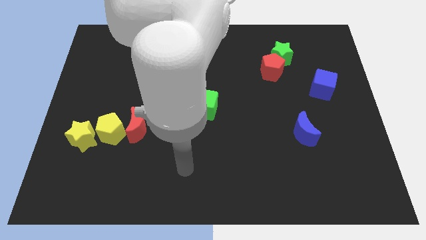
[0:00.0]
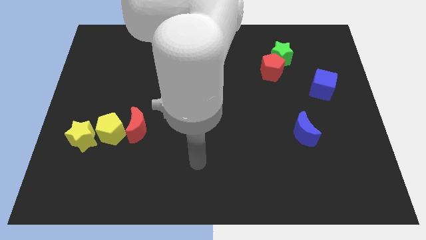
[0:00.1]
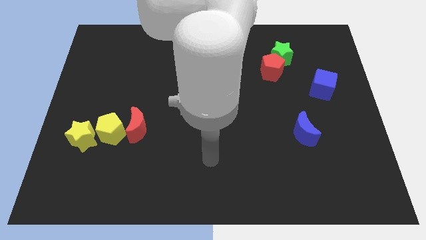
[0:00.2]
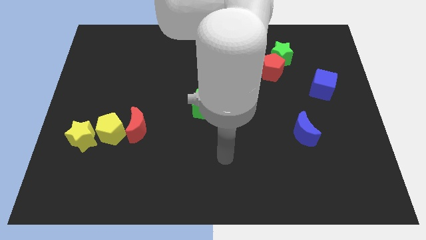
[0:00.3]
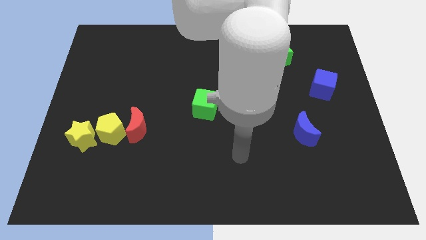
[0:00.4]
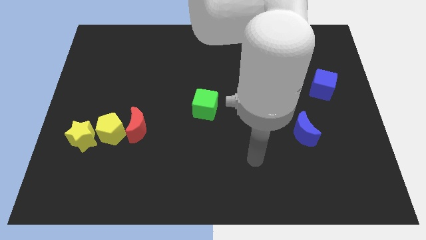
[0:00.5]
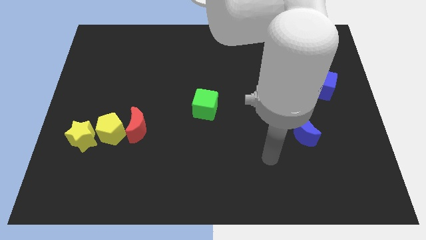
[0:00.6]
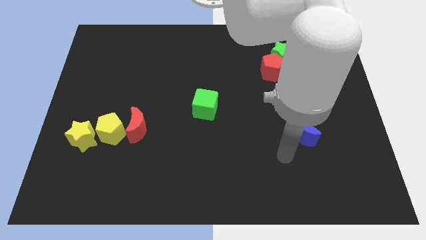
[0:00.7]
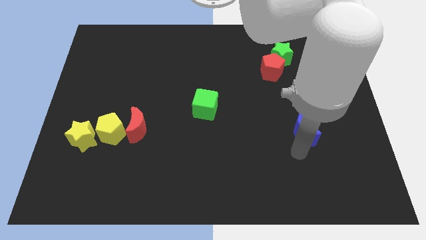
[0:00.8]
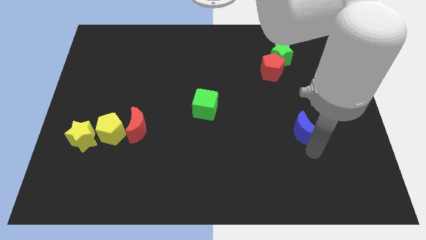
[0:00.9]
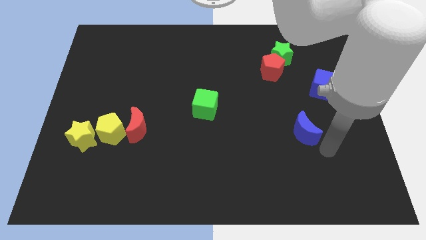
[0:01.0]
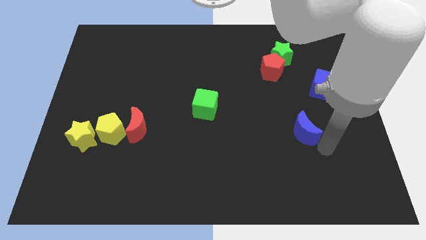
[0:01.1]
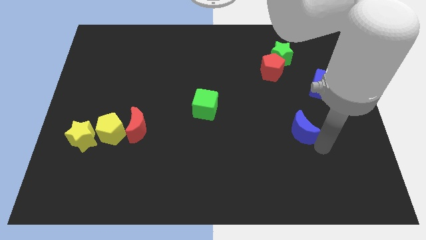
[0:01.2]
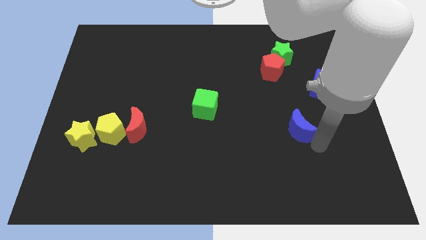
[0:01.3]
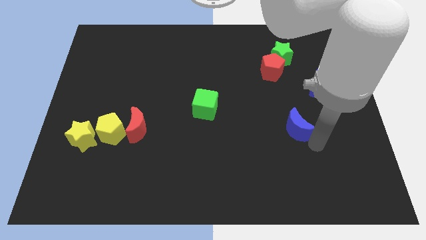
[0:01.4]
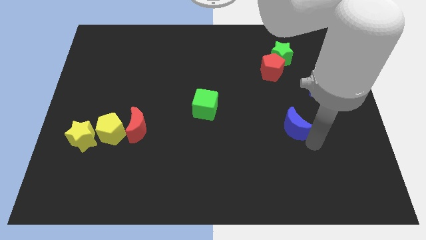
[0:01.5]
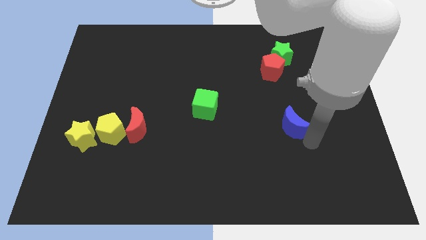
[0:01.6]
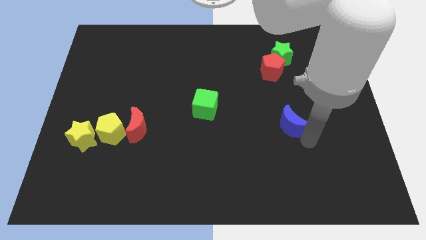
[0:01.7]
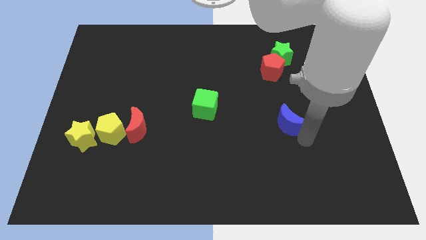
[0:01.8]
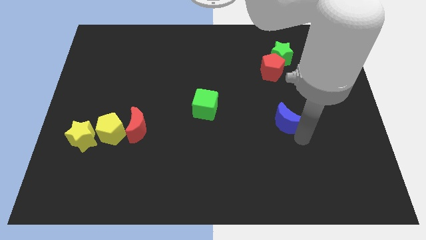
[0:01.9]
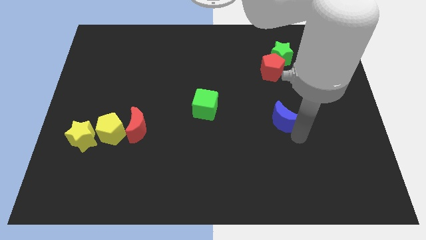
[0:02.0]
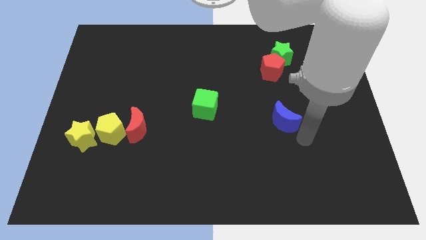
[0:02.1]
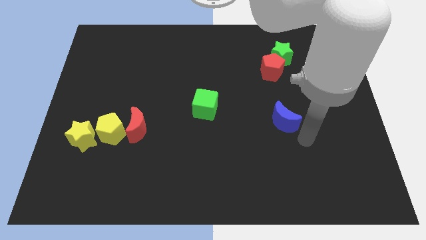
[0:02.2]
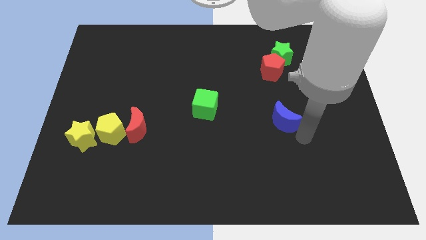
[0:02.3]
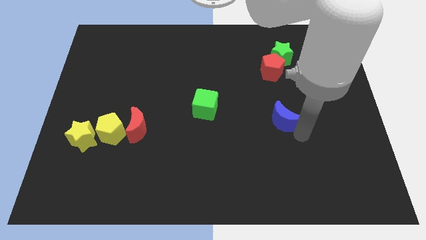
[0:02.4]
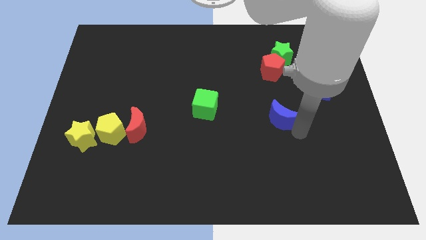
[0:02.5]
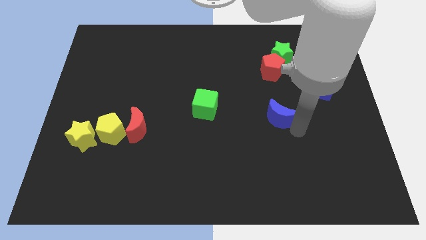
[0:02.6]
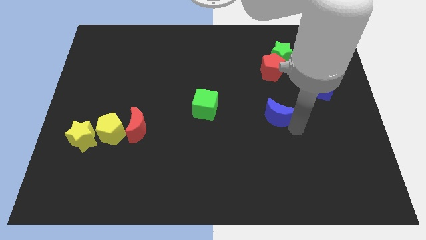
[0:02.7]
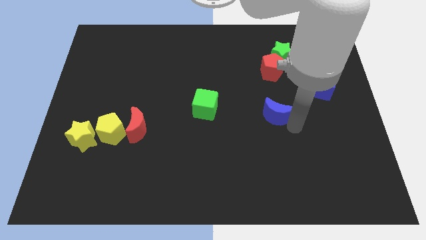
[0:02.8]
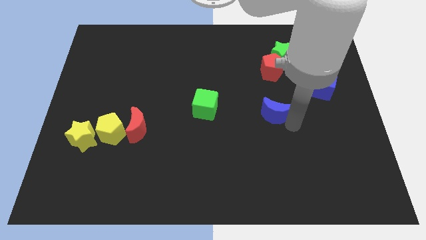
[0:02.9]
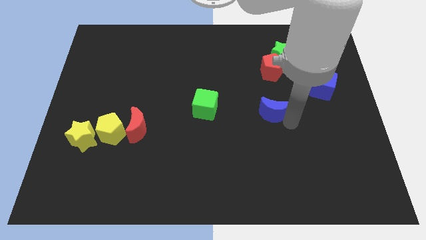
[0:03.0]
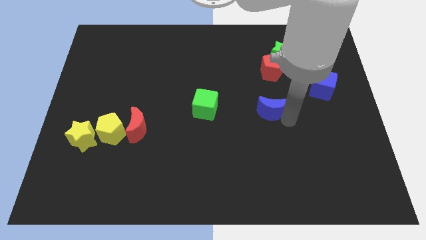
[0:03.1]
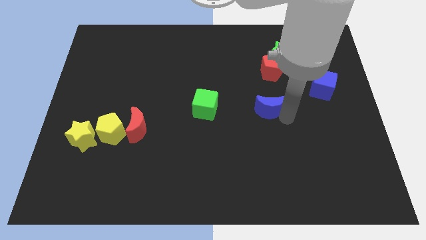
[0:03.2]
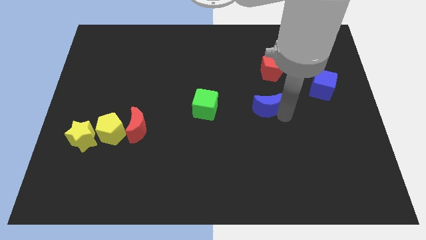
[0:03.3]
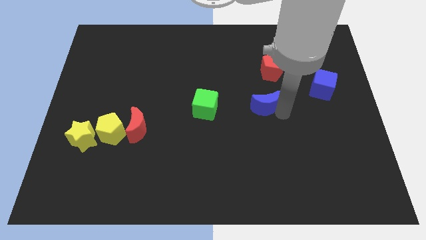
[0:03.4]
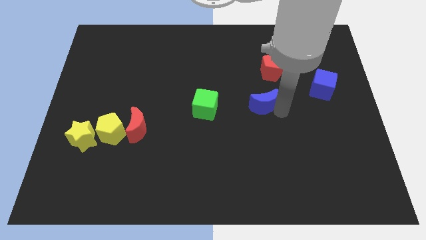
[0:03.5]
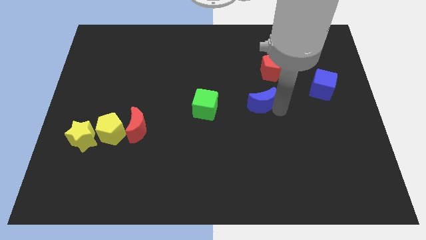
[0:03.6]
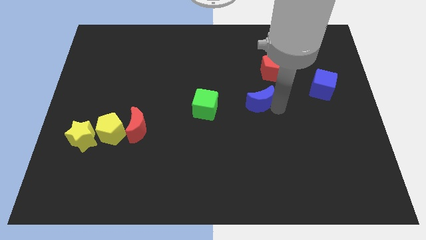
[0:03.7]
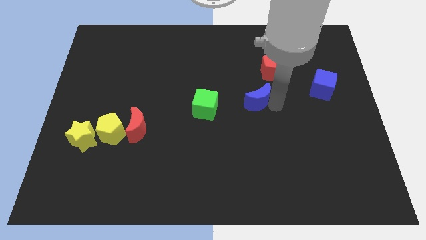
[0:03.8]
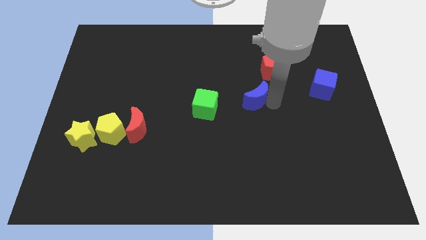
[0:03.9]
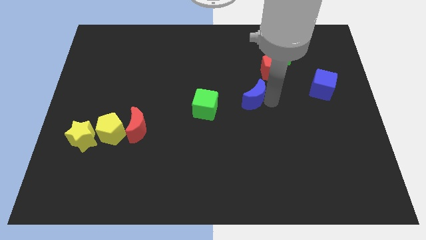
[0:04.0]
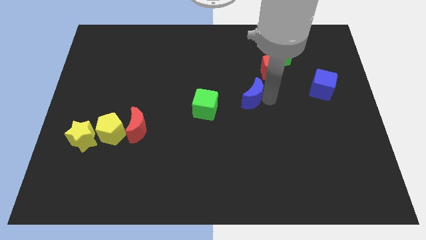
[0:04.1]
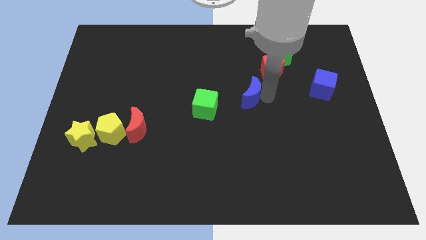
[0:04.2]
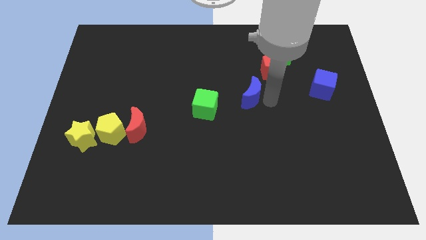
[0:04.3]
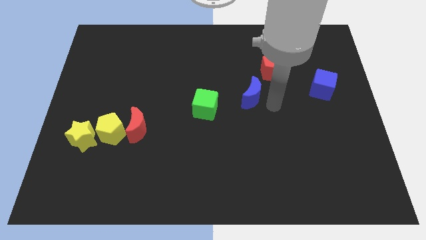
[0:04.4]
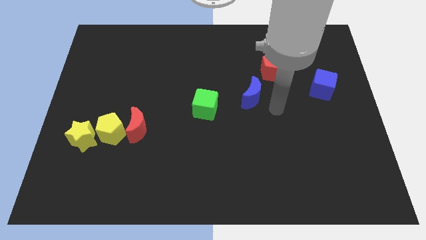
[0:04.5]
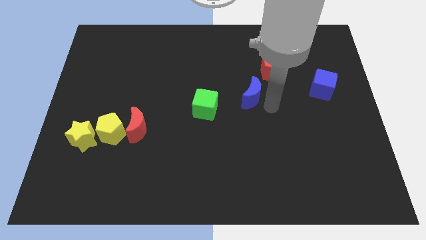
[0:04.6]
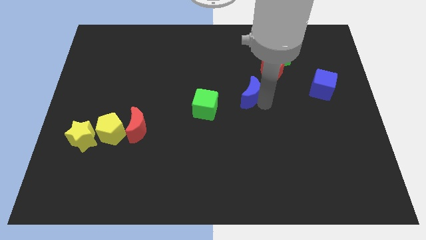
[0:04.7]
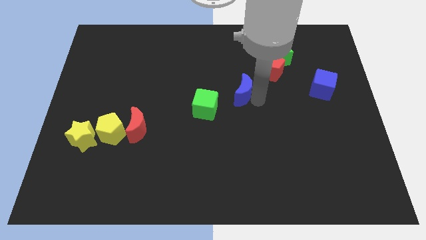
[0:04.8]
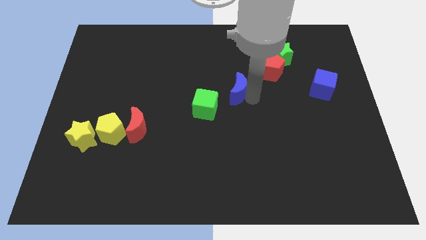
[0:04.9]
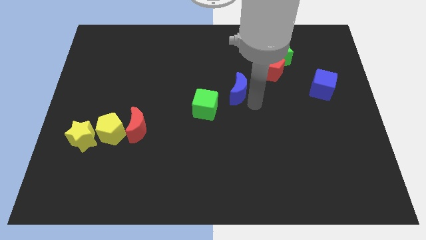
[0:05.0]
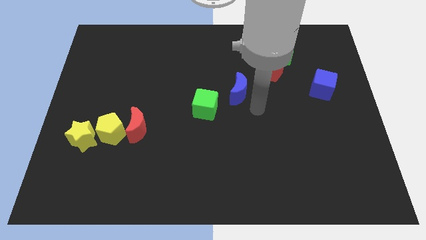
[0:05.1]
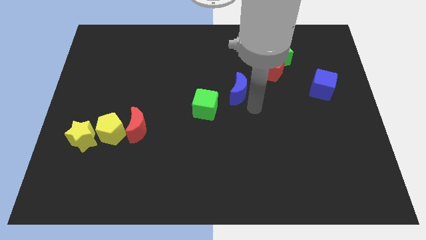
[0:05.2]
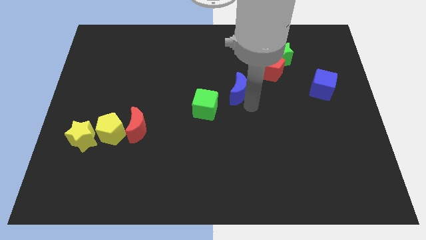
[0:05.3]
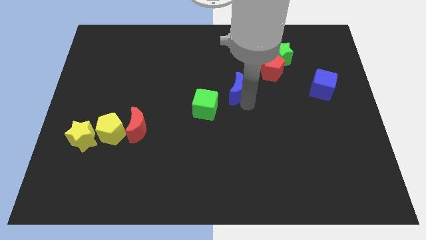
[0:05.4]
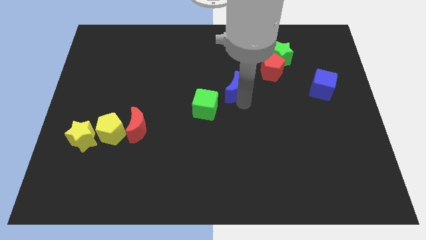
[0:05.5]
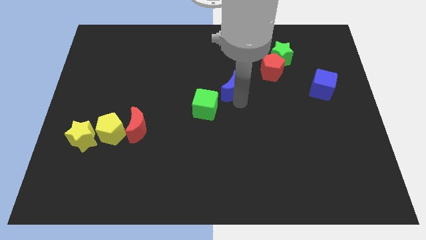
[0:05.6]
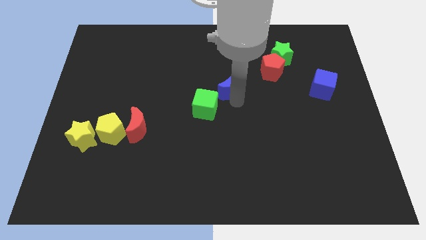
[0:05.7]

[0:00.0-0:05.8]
slide the blue moon up and then to the left

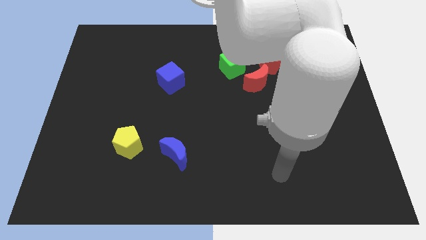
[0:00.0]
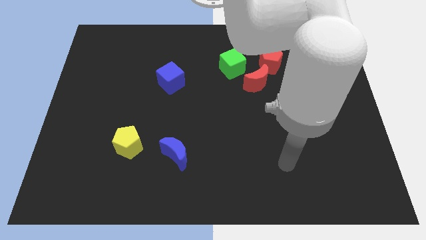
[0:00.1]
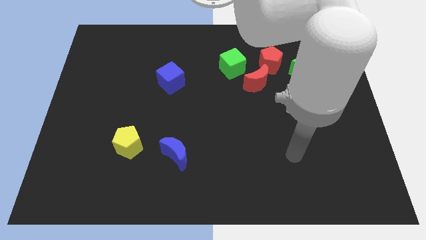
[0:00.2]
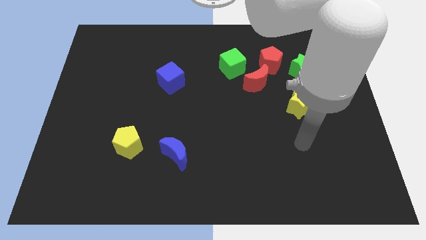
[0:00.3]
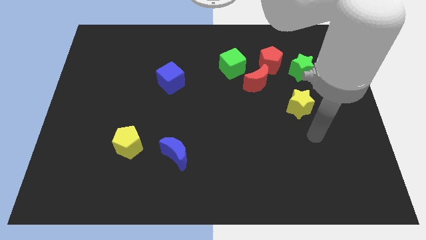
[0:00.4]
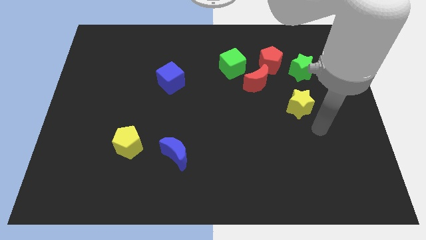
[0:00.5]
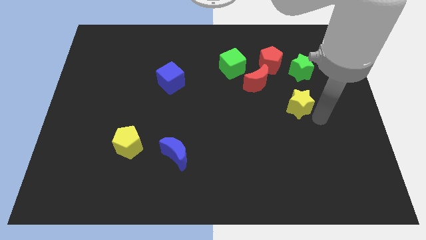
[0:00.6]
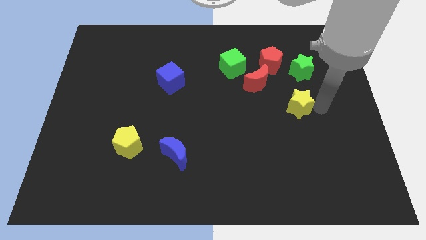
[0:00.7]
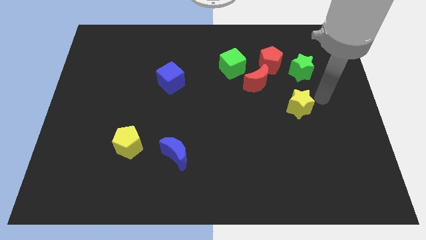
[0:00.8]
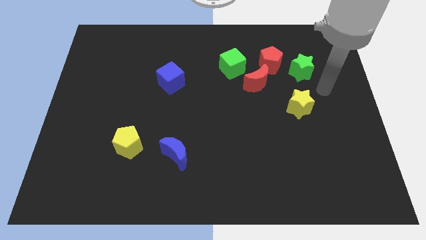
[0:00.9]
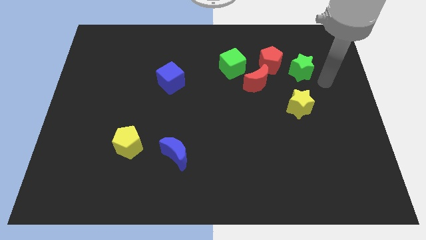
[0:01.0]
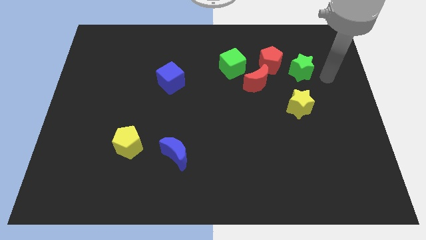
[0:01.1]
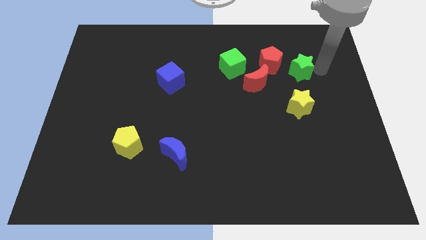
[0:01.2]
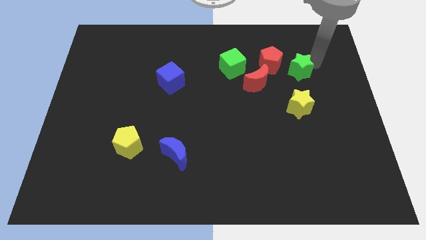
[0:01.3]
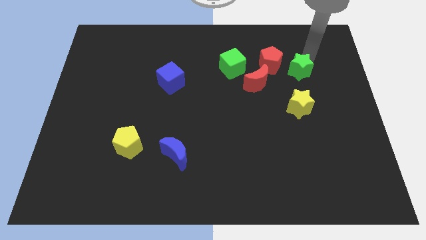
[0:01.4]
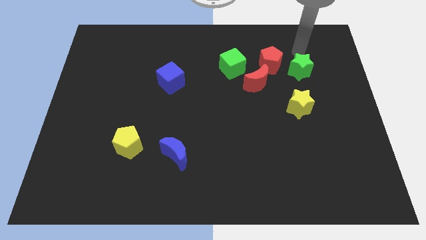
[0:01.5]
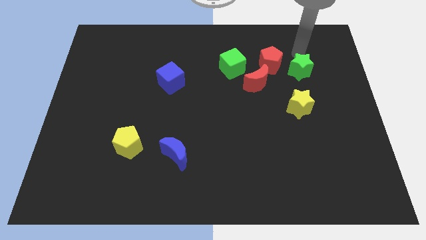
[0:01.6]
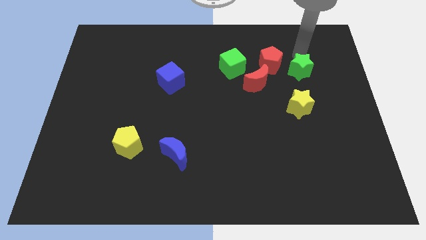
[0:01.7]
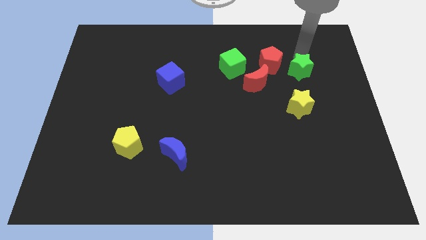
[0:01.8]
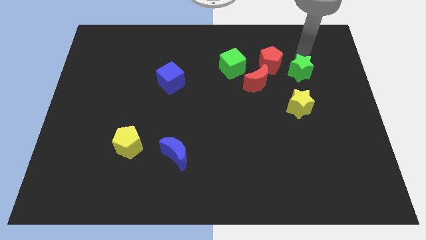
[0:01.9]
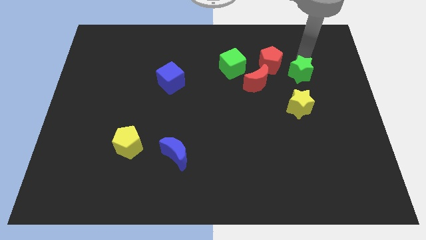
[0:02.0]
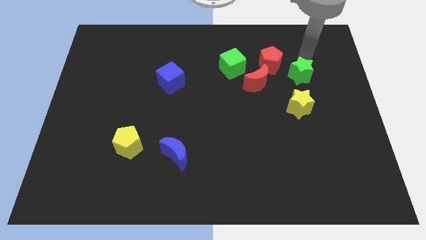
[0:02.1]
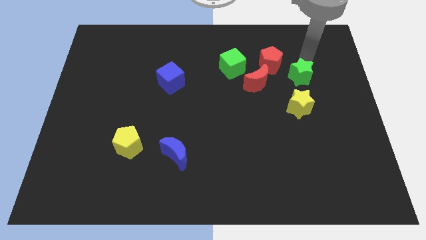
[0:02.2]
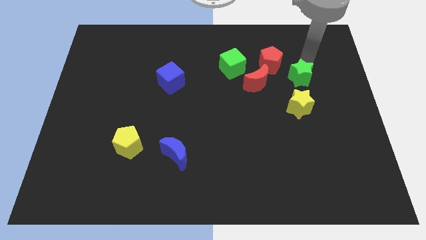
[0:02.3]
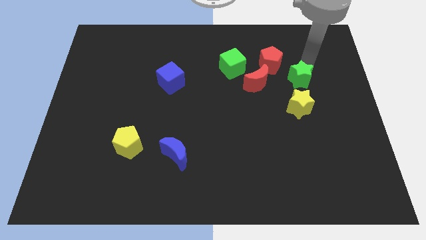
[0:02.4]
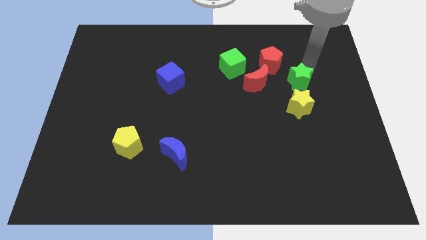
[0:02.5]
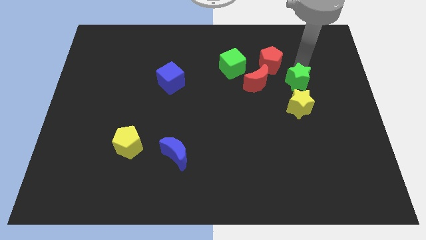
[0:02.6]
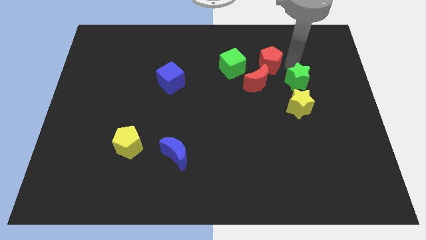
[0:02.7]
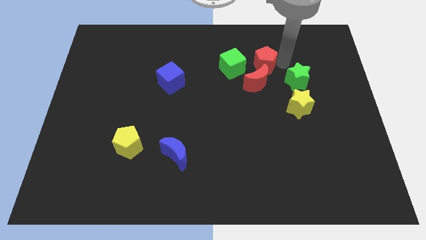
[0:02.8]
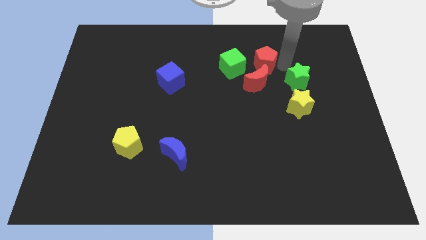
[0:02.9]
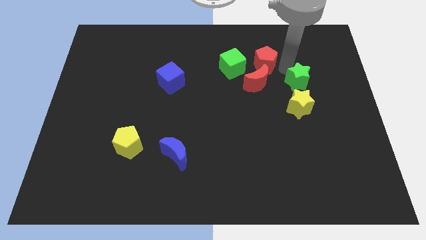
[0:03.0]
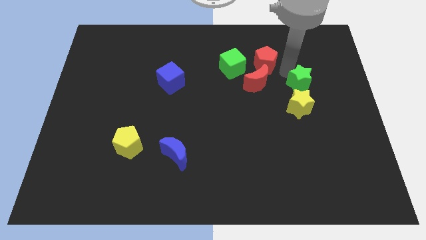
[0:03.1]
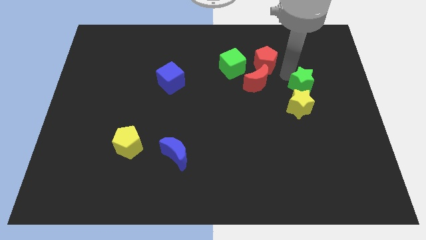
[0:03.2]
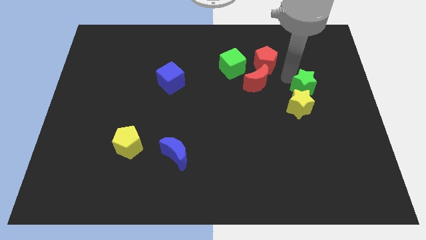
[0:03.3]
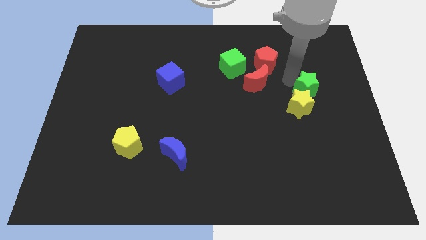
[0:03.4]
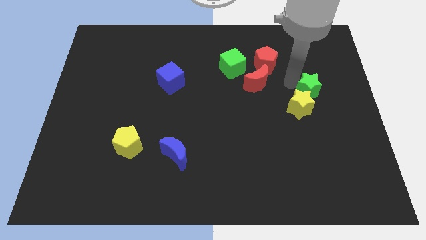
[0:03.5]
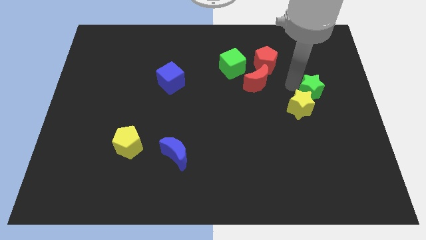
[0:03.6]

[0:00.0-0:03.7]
move the green star slightly down
